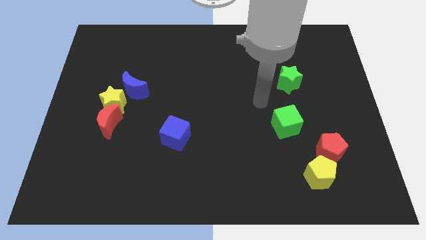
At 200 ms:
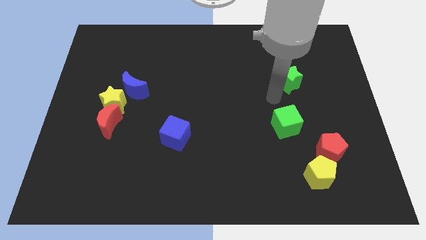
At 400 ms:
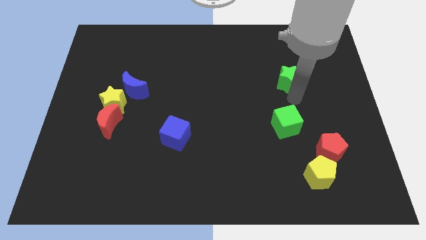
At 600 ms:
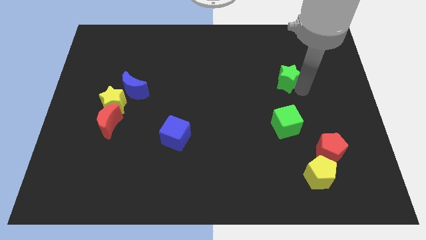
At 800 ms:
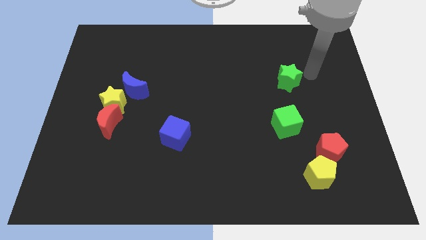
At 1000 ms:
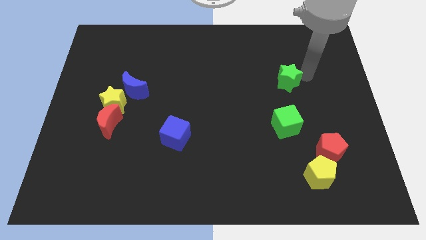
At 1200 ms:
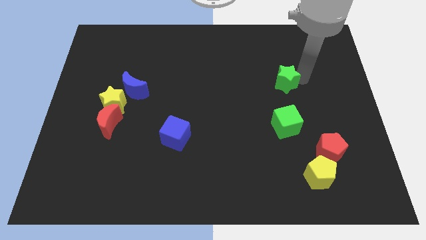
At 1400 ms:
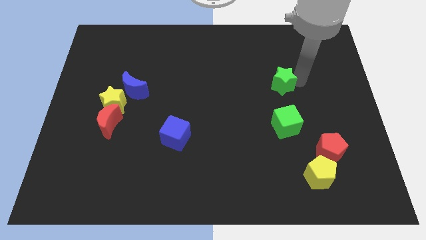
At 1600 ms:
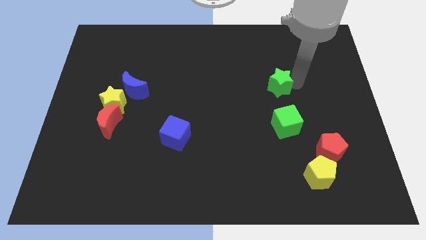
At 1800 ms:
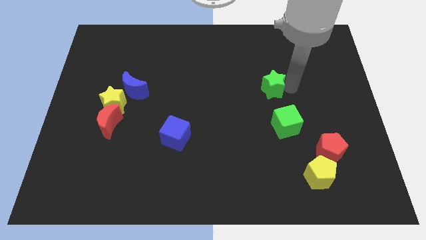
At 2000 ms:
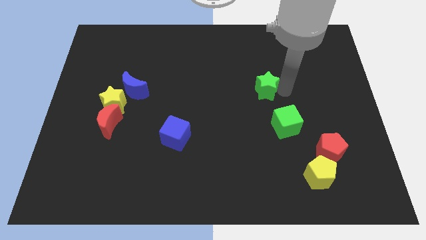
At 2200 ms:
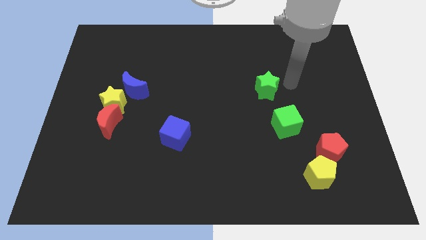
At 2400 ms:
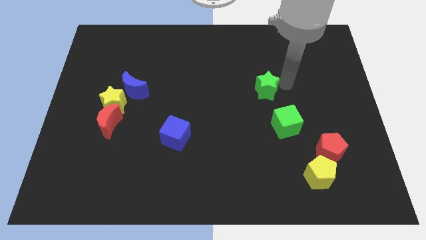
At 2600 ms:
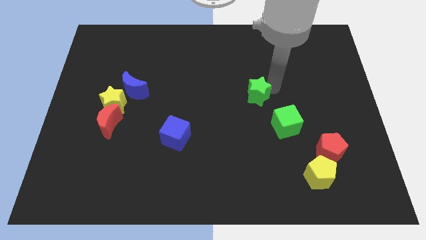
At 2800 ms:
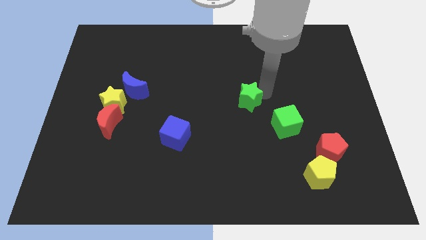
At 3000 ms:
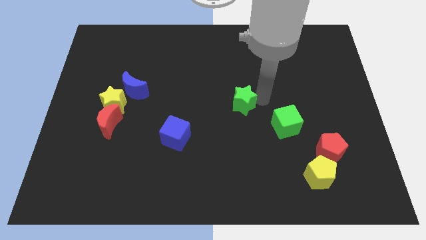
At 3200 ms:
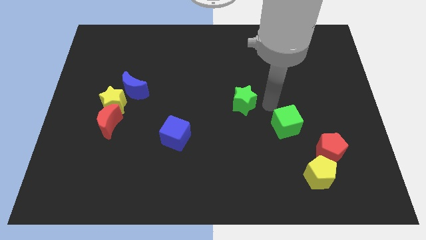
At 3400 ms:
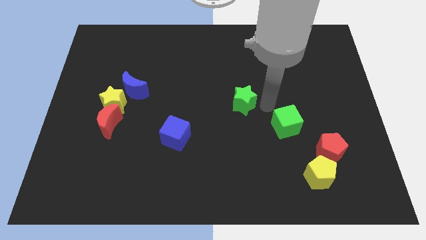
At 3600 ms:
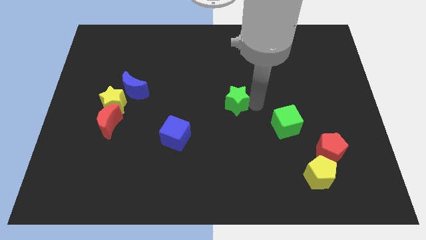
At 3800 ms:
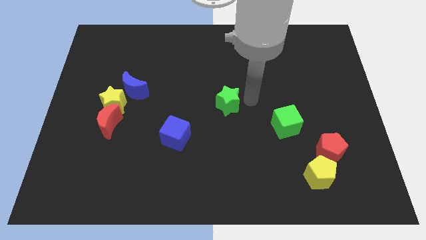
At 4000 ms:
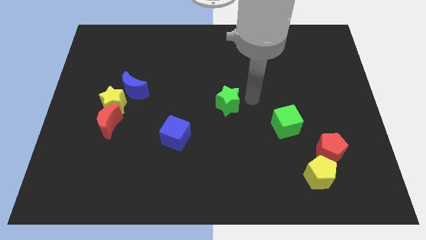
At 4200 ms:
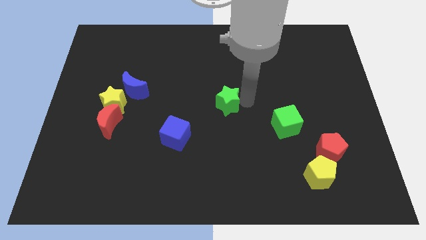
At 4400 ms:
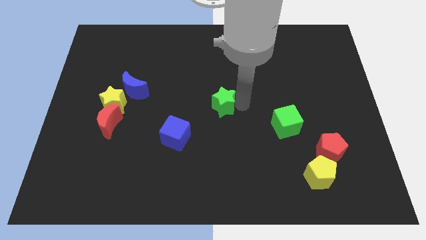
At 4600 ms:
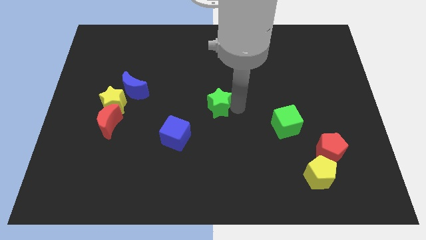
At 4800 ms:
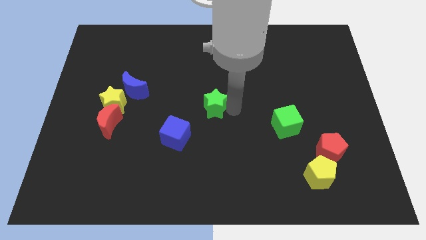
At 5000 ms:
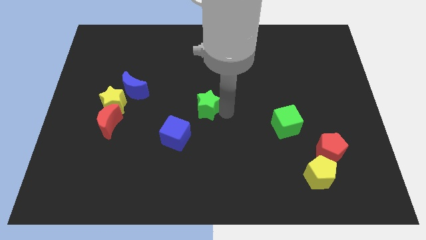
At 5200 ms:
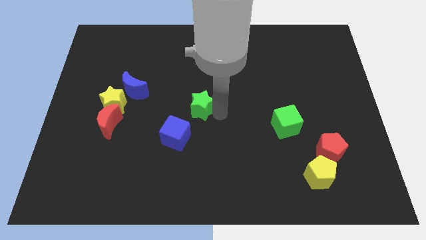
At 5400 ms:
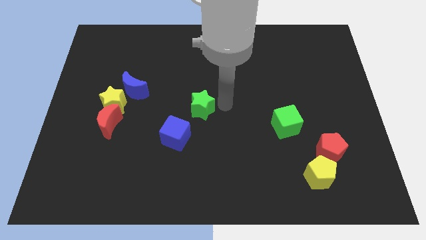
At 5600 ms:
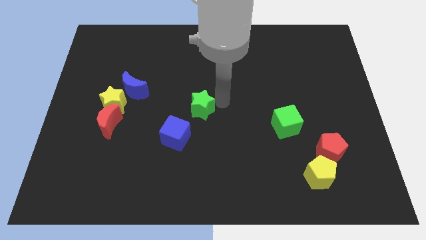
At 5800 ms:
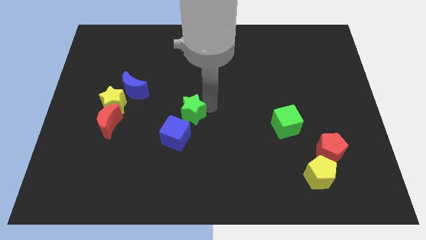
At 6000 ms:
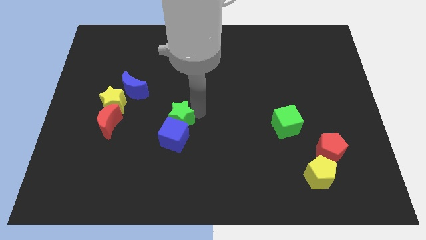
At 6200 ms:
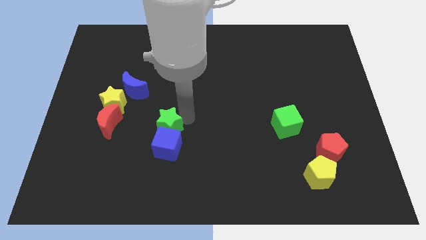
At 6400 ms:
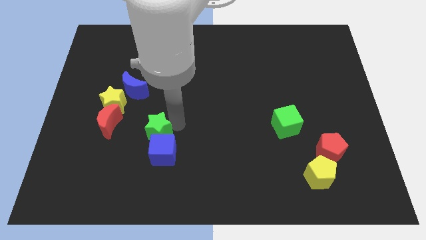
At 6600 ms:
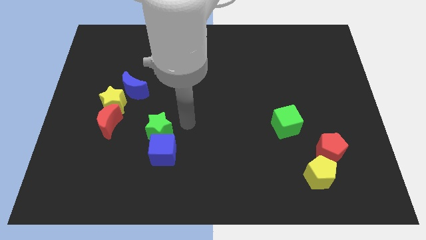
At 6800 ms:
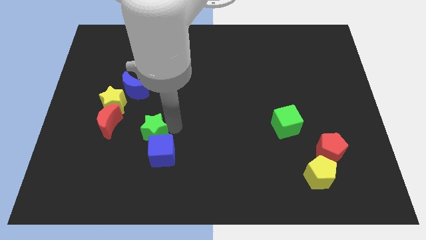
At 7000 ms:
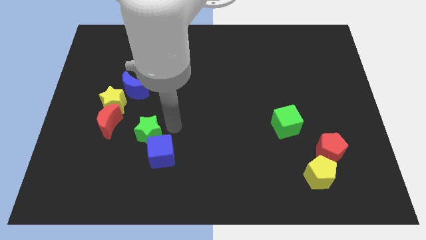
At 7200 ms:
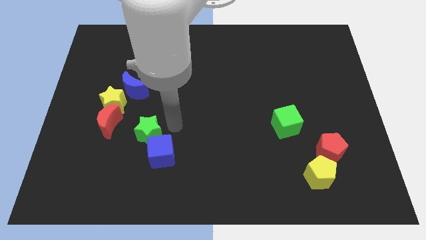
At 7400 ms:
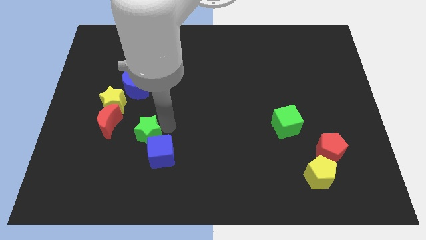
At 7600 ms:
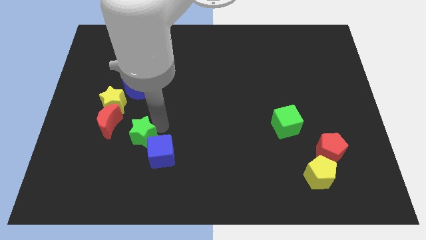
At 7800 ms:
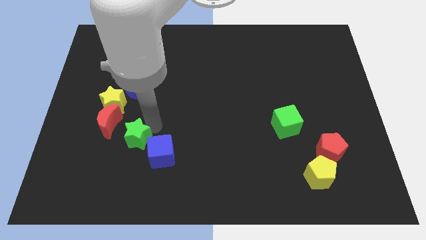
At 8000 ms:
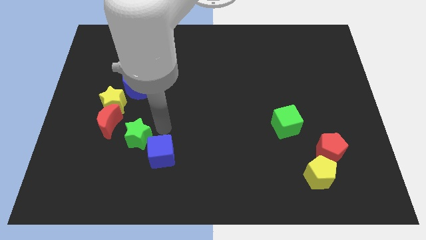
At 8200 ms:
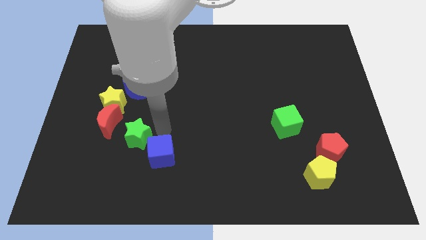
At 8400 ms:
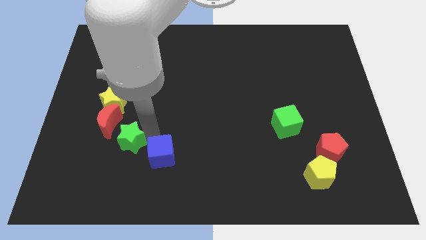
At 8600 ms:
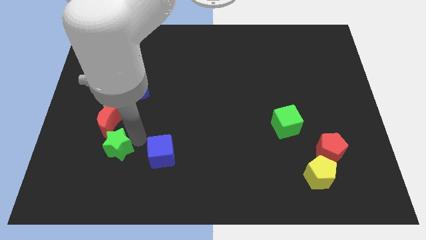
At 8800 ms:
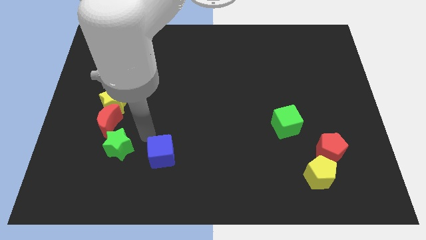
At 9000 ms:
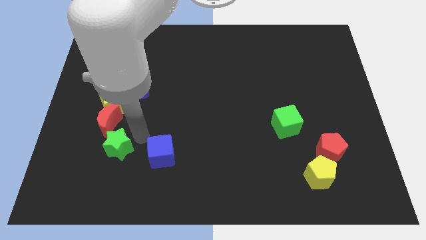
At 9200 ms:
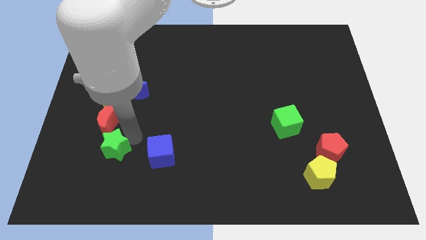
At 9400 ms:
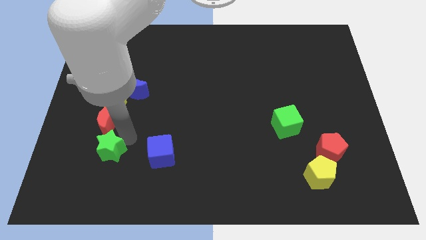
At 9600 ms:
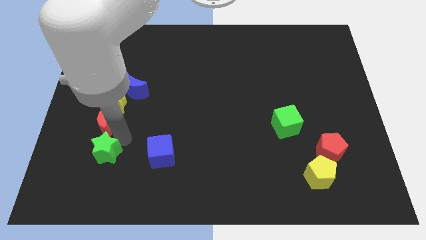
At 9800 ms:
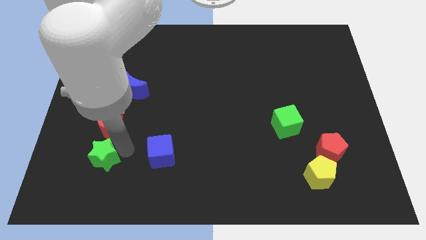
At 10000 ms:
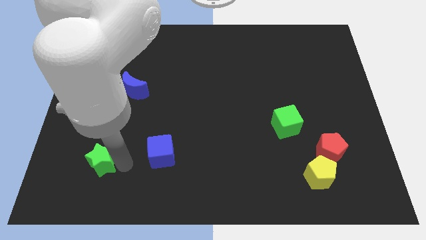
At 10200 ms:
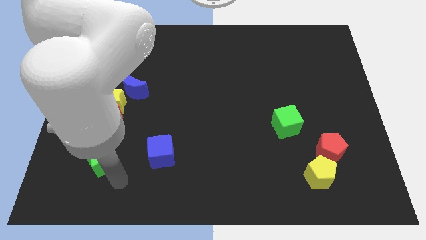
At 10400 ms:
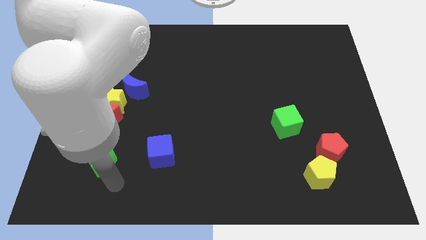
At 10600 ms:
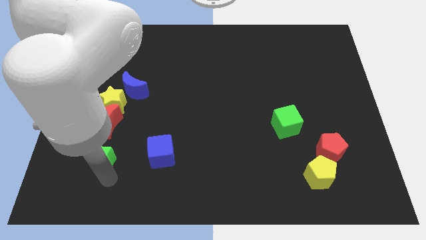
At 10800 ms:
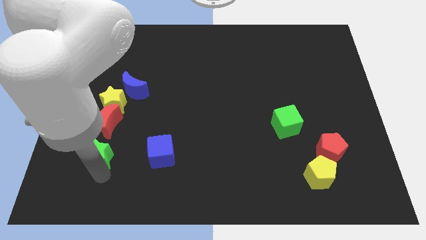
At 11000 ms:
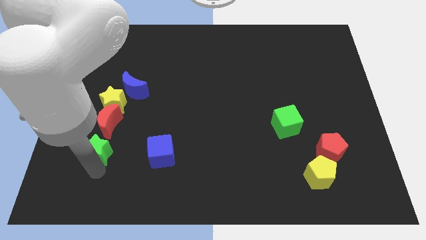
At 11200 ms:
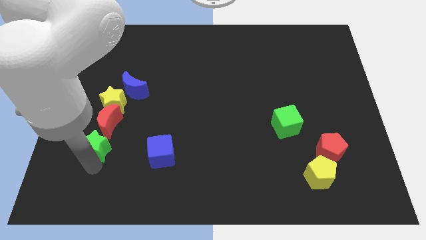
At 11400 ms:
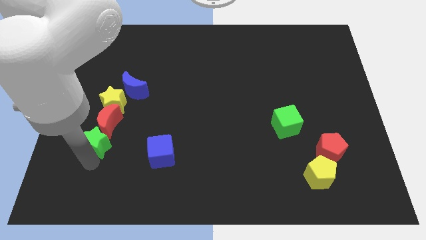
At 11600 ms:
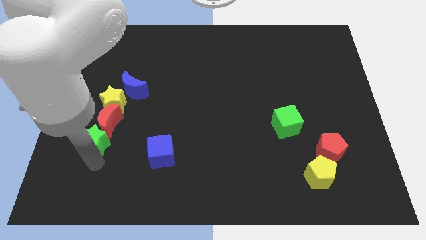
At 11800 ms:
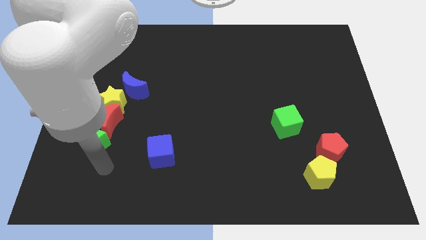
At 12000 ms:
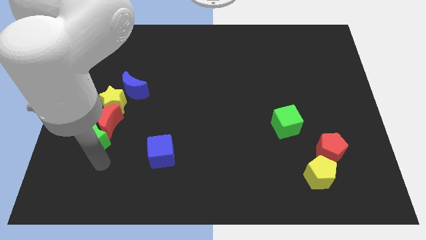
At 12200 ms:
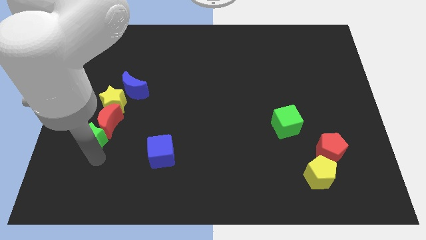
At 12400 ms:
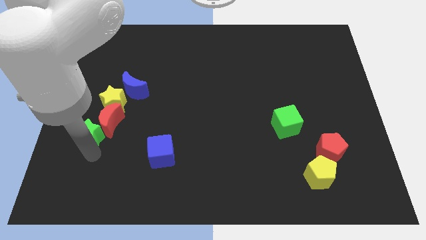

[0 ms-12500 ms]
move the green star diagonally down and to the left of the yellow star

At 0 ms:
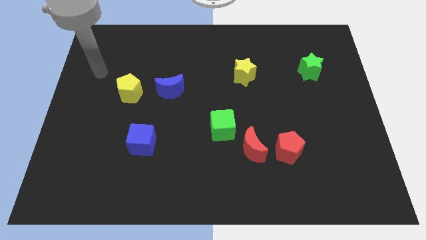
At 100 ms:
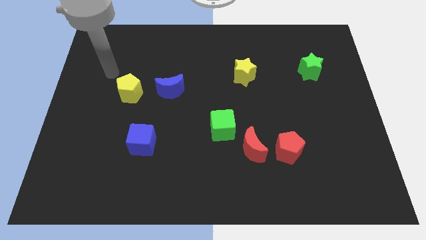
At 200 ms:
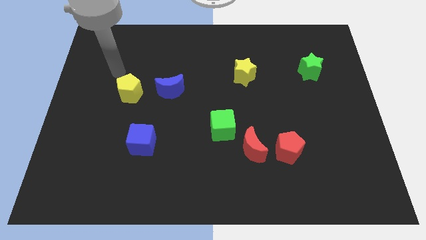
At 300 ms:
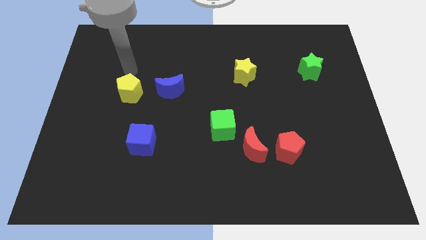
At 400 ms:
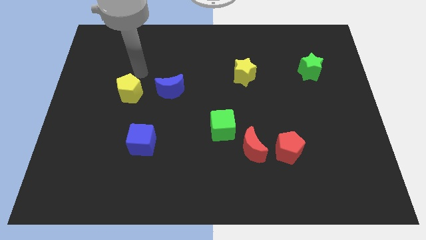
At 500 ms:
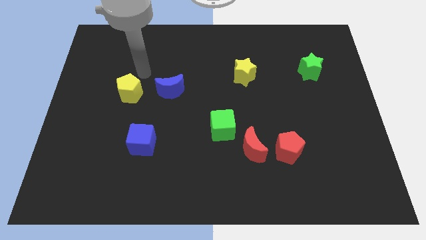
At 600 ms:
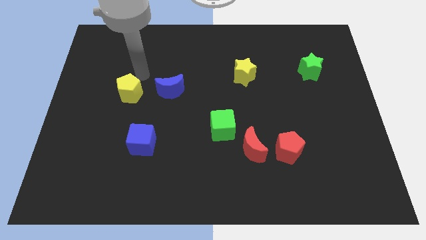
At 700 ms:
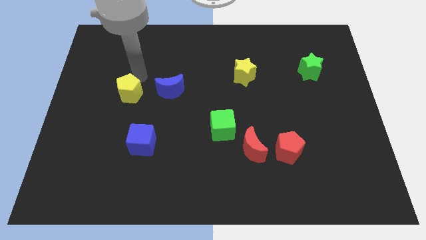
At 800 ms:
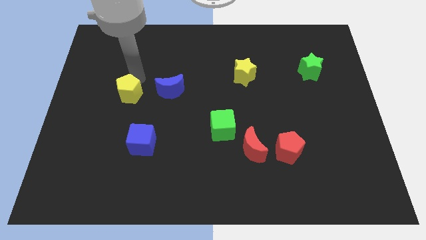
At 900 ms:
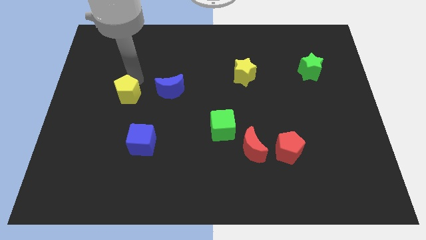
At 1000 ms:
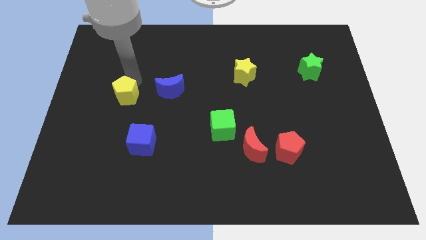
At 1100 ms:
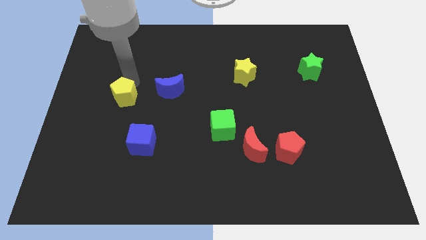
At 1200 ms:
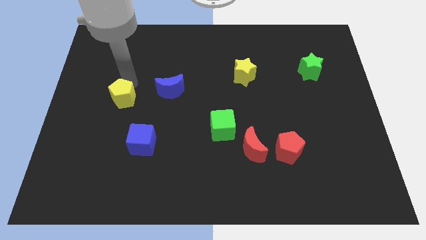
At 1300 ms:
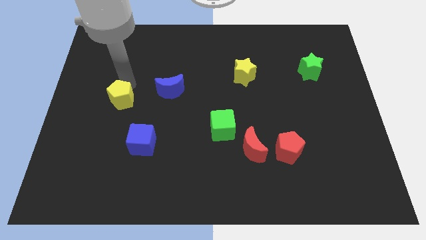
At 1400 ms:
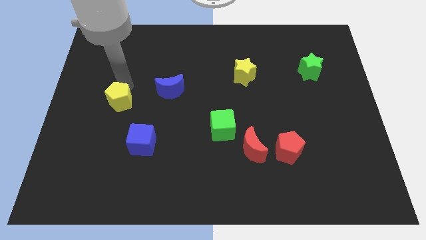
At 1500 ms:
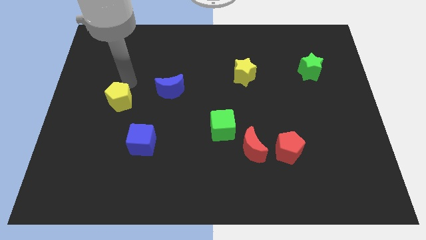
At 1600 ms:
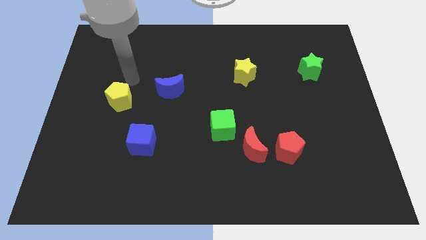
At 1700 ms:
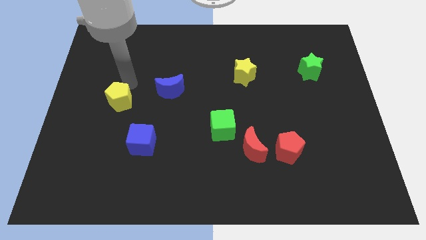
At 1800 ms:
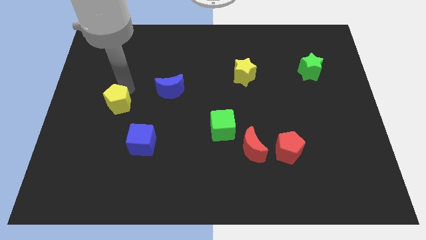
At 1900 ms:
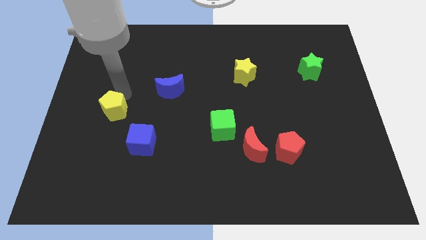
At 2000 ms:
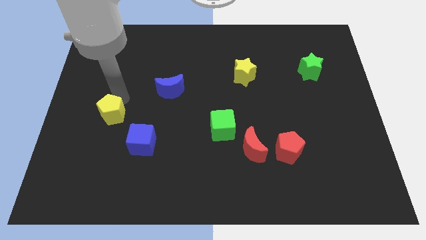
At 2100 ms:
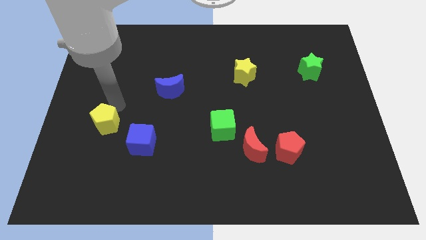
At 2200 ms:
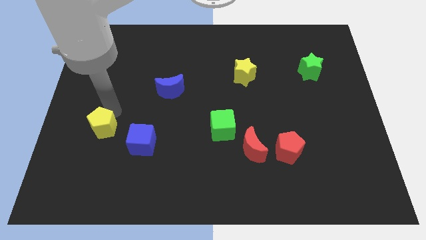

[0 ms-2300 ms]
put the yellow pentagon to the left side of the blue cube
